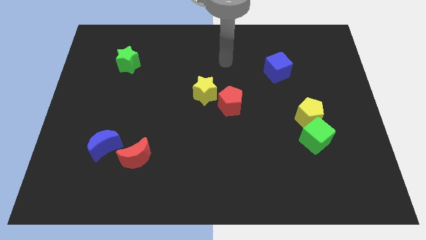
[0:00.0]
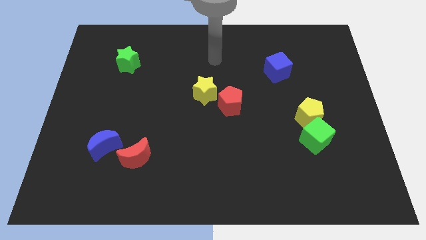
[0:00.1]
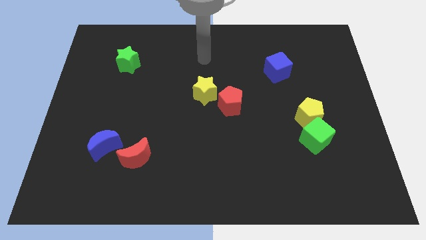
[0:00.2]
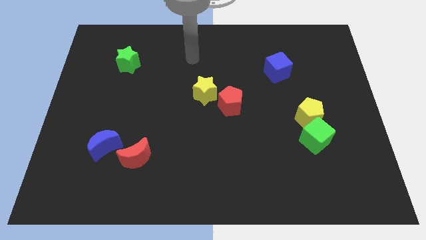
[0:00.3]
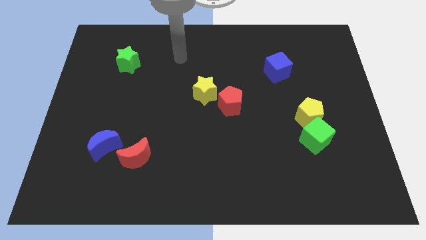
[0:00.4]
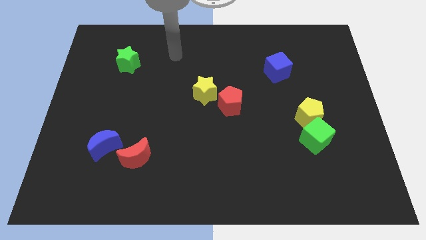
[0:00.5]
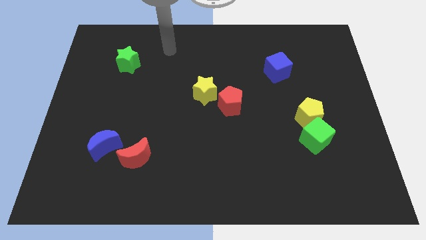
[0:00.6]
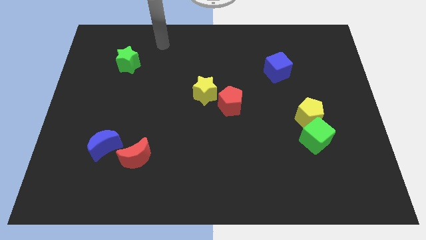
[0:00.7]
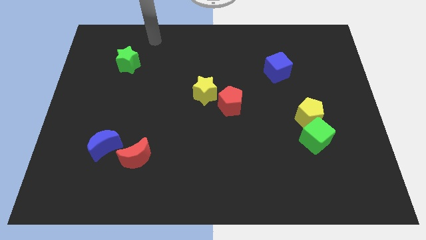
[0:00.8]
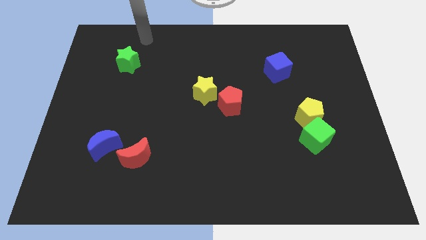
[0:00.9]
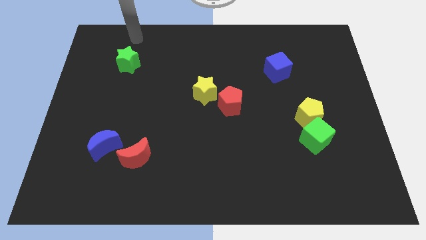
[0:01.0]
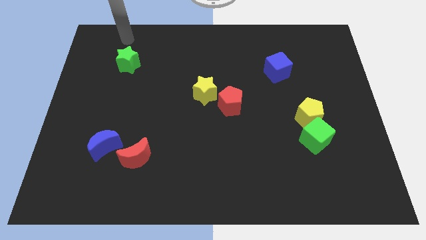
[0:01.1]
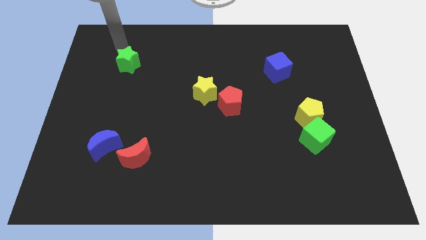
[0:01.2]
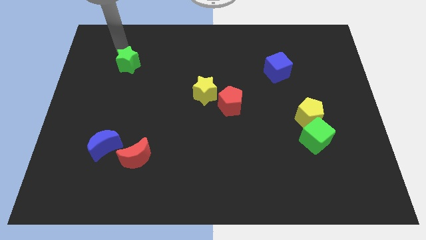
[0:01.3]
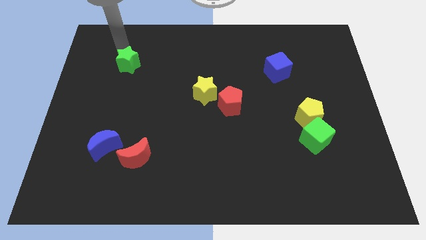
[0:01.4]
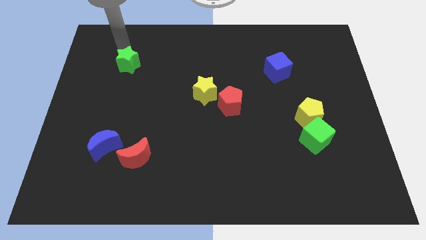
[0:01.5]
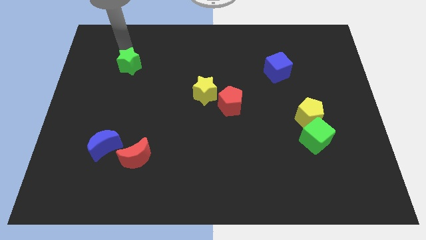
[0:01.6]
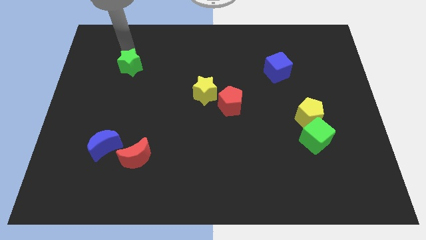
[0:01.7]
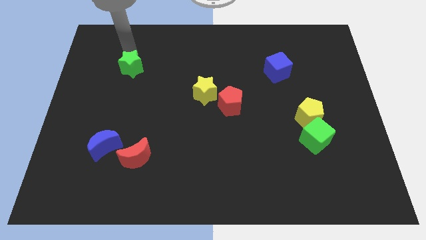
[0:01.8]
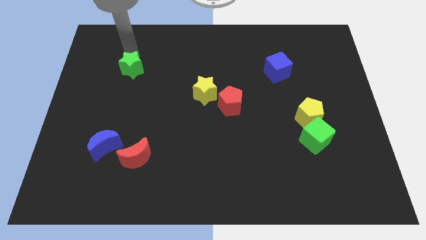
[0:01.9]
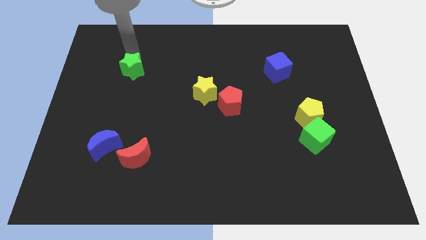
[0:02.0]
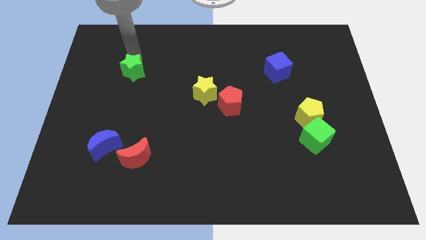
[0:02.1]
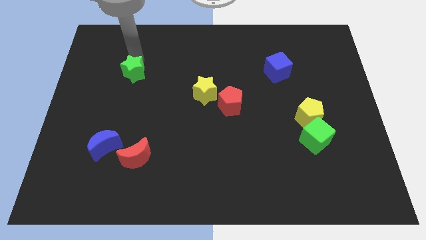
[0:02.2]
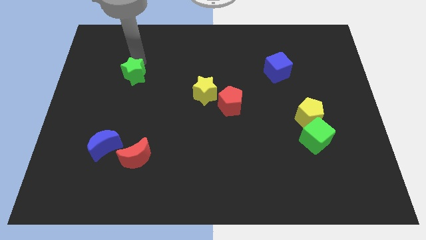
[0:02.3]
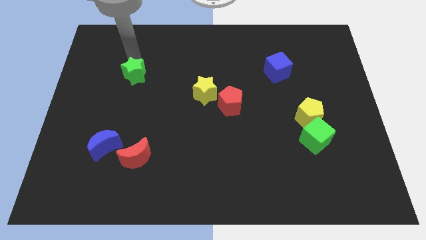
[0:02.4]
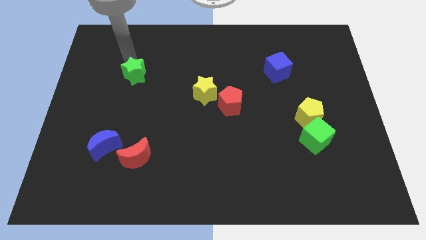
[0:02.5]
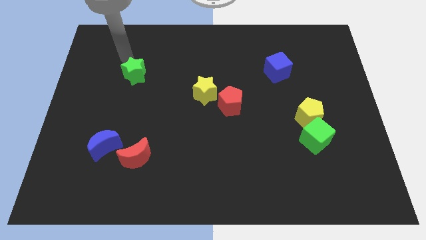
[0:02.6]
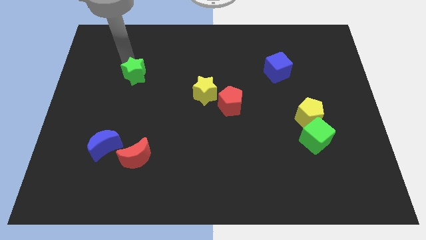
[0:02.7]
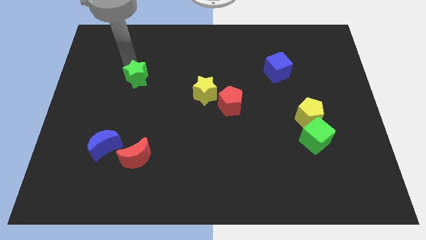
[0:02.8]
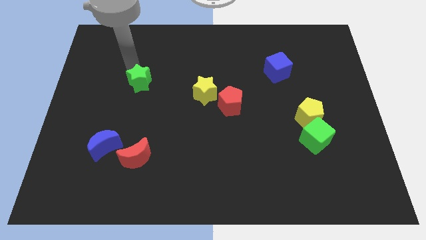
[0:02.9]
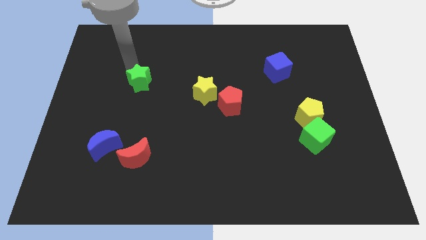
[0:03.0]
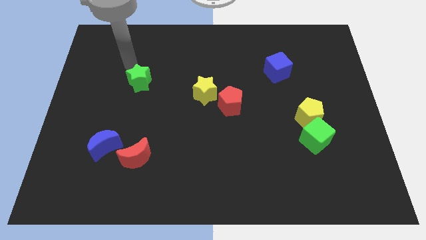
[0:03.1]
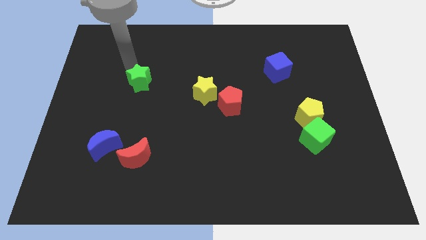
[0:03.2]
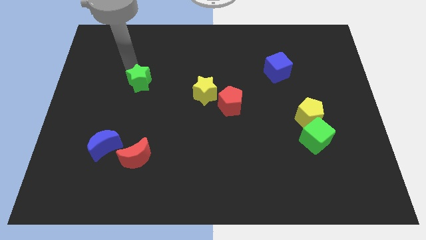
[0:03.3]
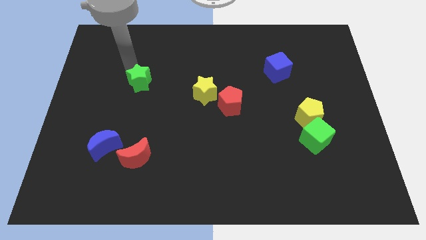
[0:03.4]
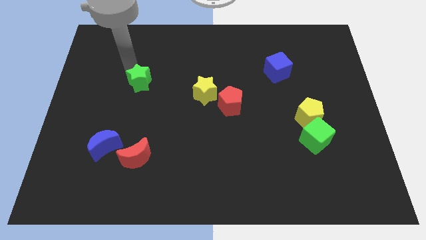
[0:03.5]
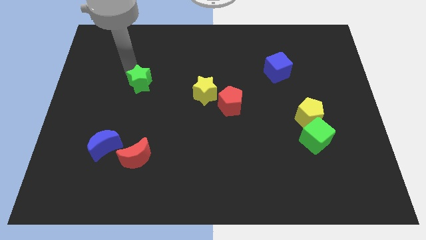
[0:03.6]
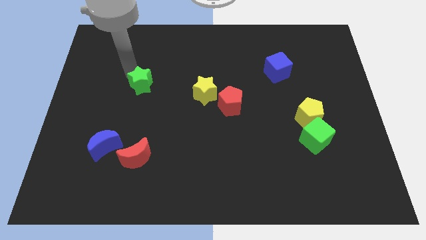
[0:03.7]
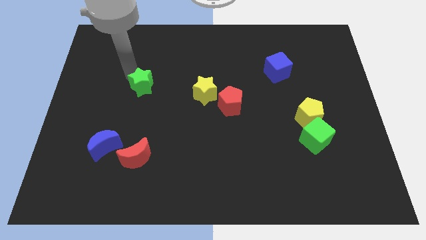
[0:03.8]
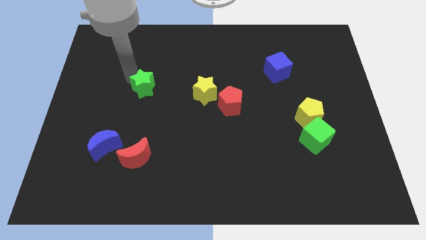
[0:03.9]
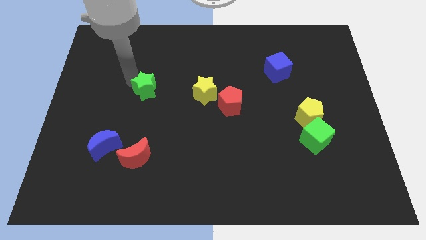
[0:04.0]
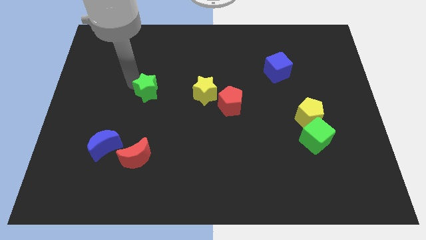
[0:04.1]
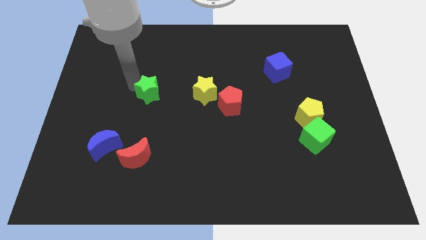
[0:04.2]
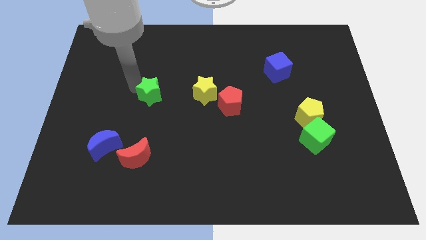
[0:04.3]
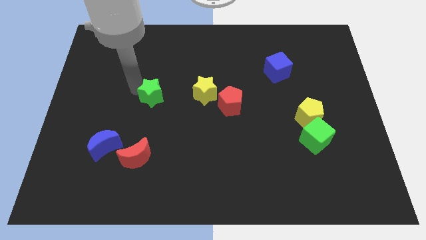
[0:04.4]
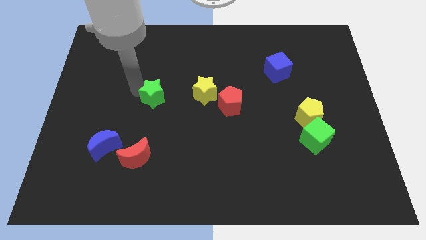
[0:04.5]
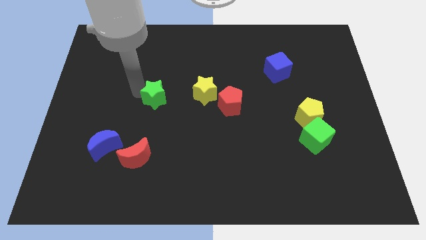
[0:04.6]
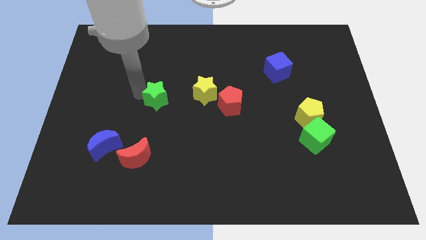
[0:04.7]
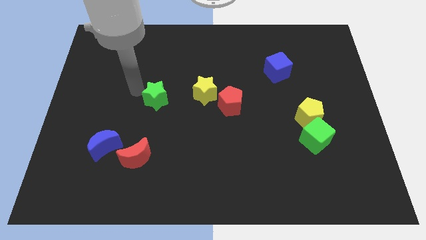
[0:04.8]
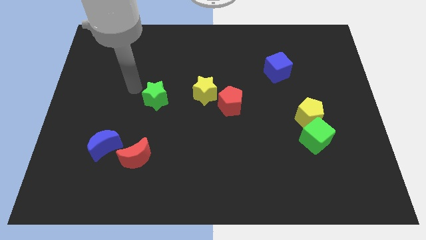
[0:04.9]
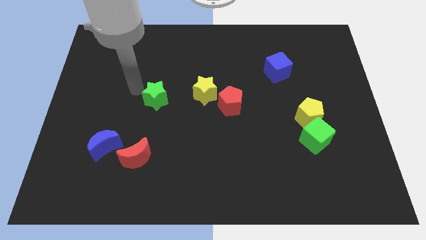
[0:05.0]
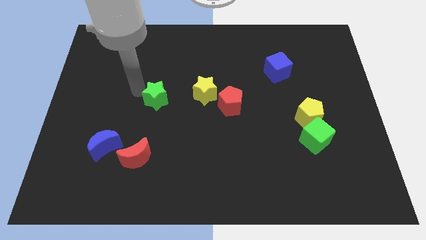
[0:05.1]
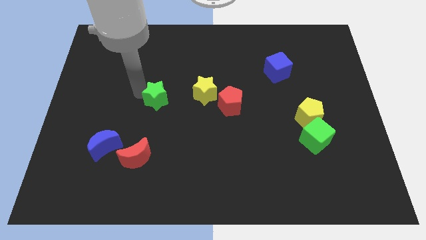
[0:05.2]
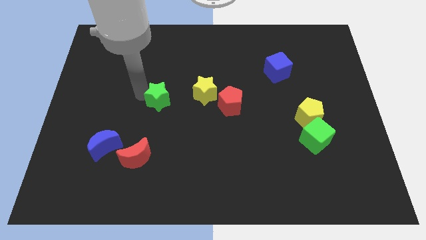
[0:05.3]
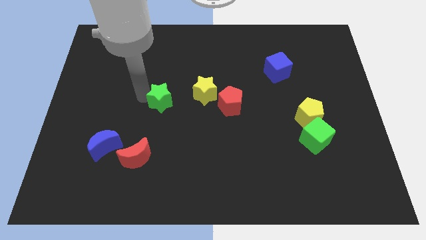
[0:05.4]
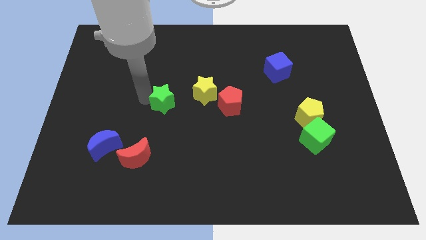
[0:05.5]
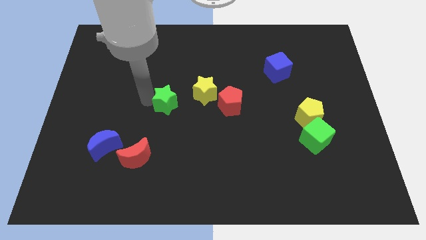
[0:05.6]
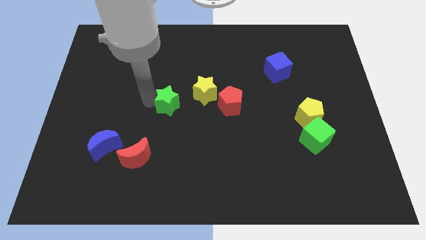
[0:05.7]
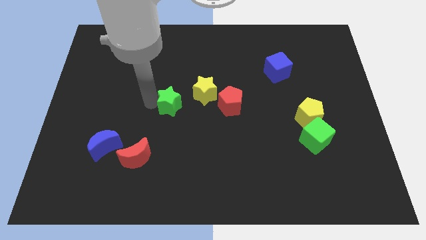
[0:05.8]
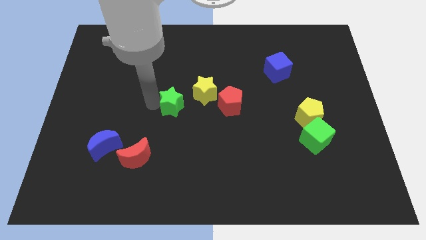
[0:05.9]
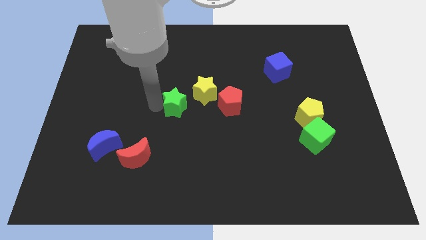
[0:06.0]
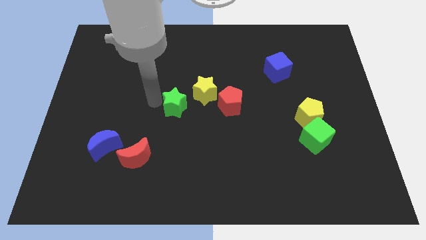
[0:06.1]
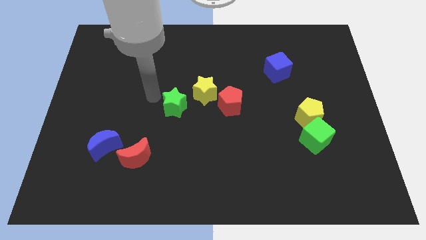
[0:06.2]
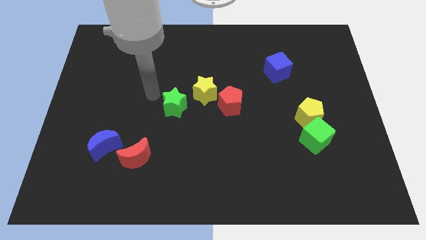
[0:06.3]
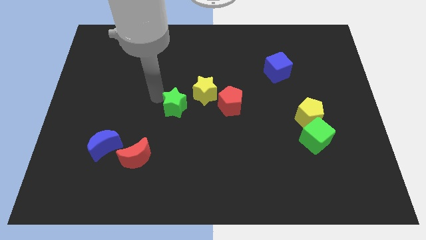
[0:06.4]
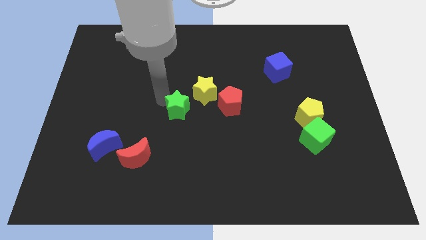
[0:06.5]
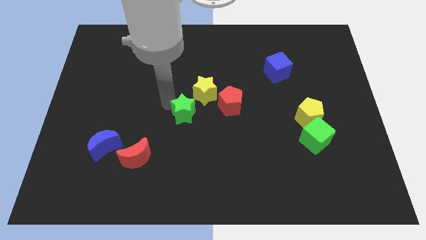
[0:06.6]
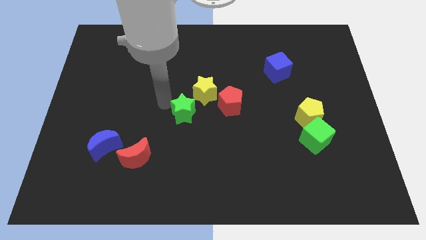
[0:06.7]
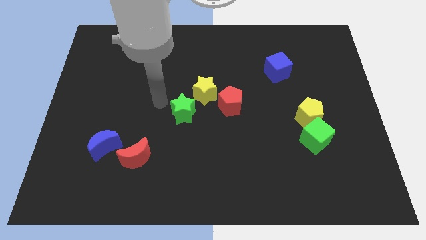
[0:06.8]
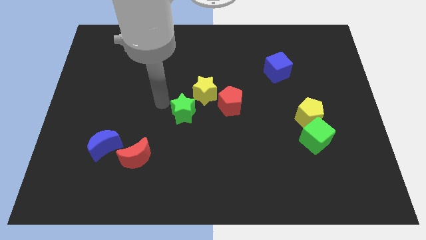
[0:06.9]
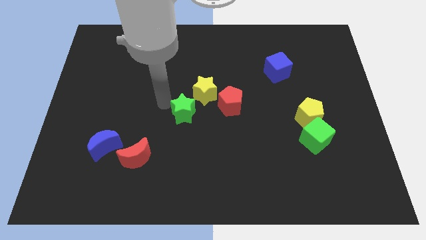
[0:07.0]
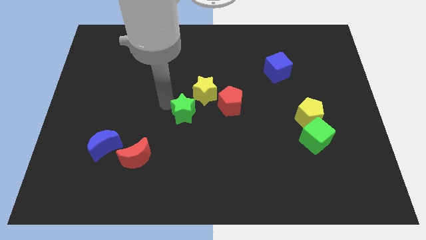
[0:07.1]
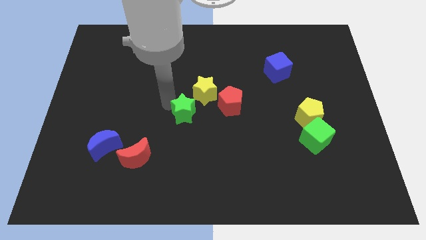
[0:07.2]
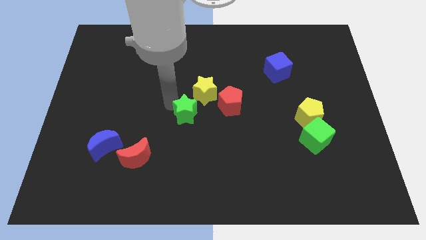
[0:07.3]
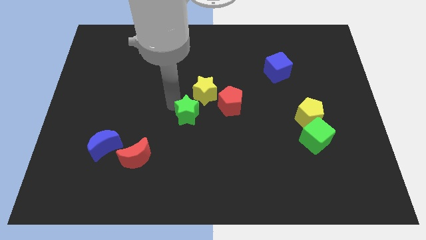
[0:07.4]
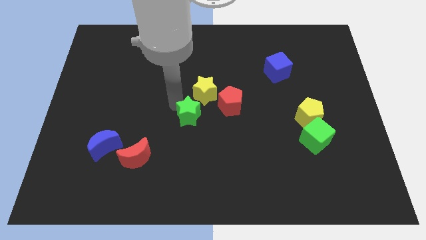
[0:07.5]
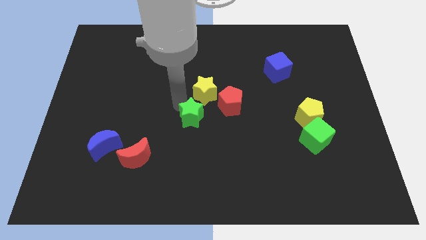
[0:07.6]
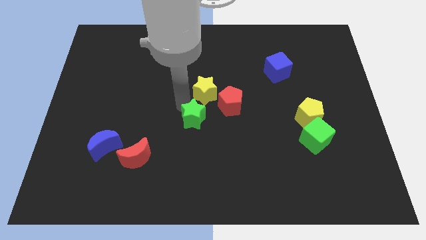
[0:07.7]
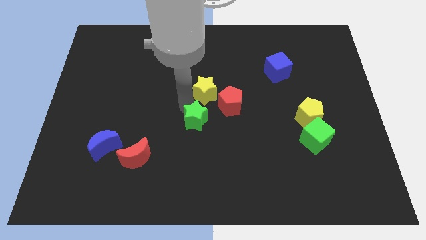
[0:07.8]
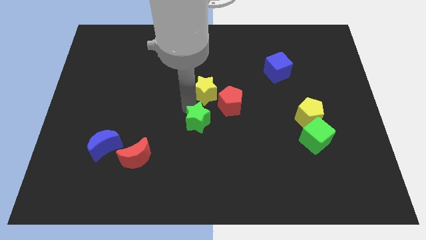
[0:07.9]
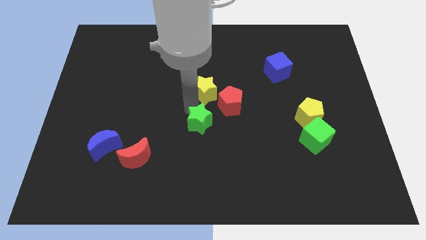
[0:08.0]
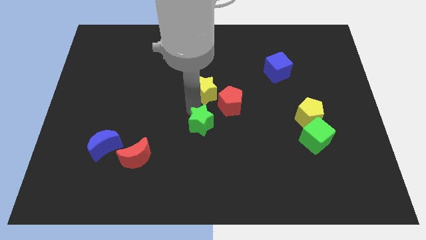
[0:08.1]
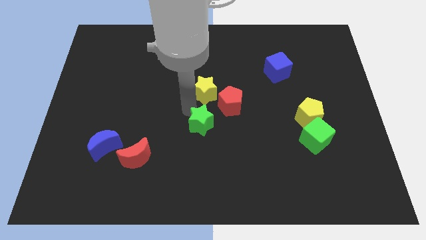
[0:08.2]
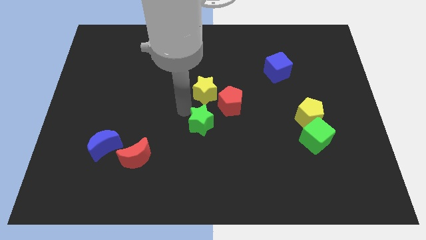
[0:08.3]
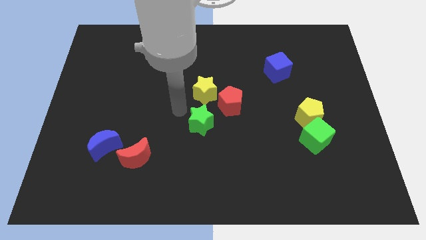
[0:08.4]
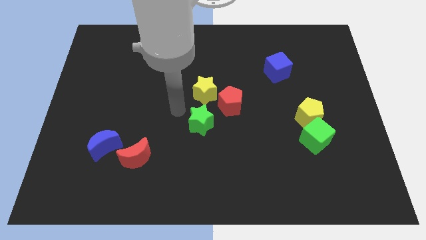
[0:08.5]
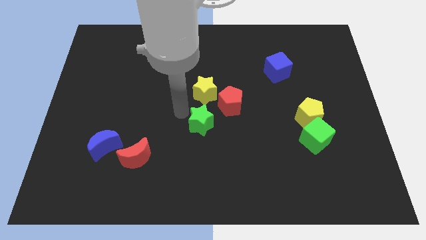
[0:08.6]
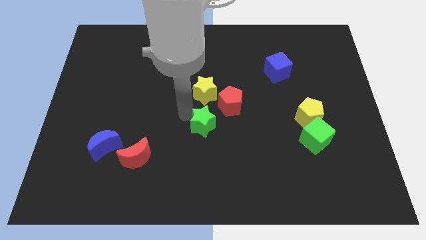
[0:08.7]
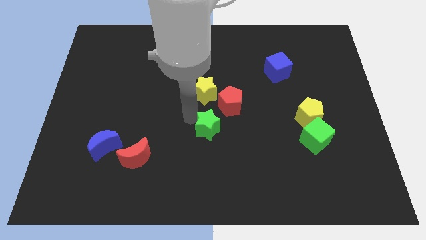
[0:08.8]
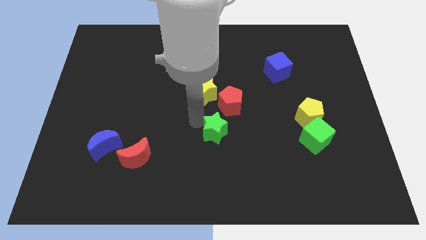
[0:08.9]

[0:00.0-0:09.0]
push the green star to the bottom of the red pentagon
